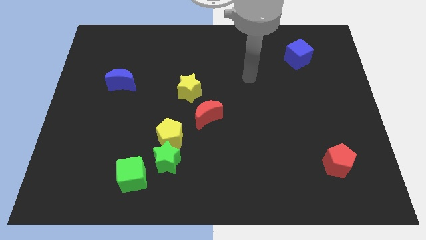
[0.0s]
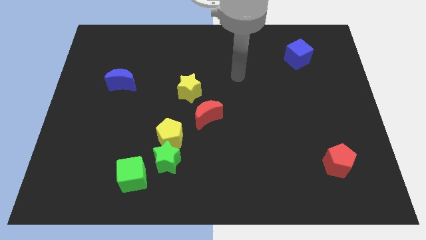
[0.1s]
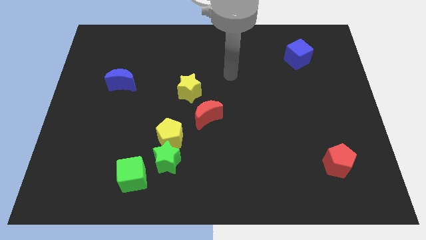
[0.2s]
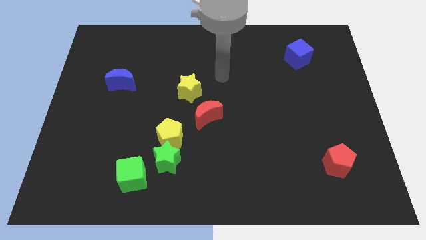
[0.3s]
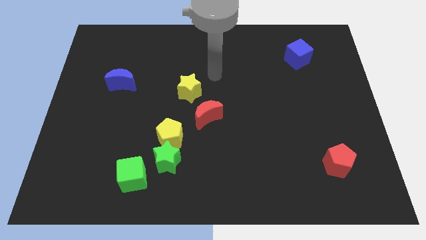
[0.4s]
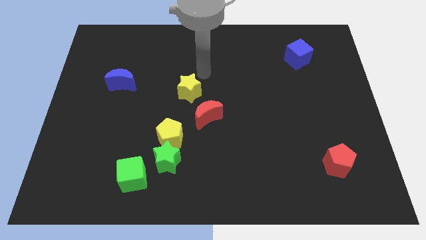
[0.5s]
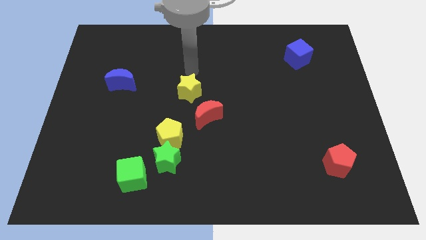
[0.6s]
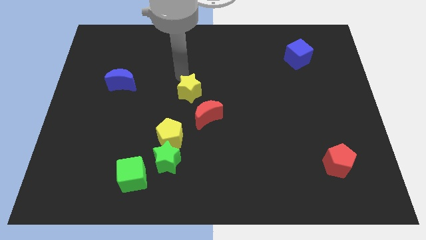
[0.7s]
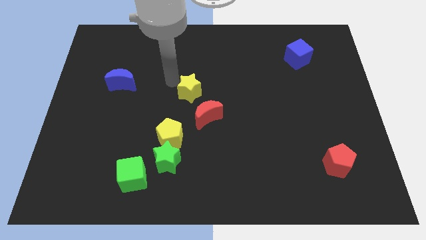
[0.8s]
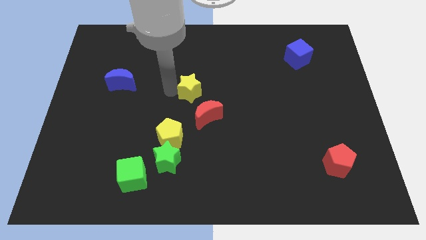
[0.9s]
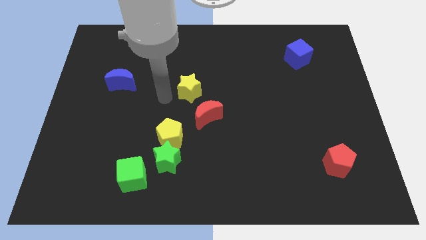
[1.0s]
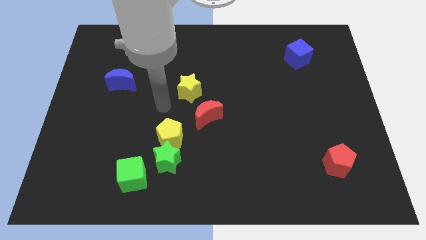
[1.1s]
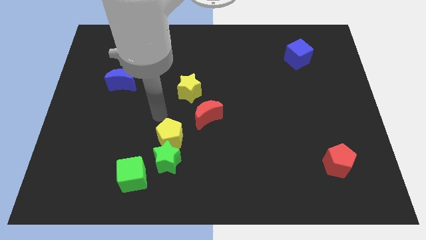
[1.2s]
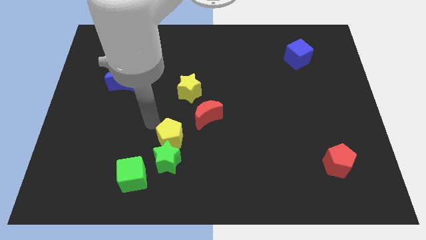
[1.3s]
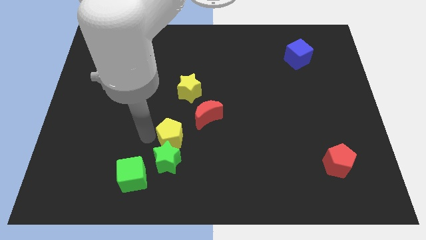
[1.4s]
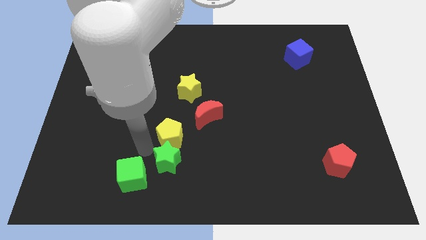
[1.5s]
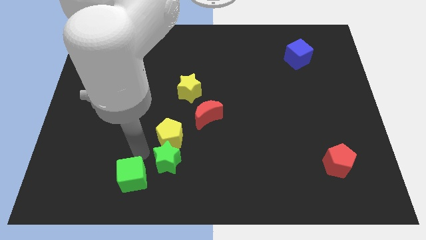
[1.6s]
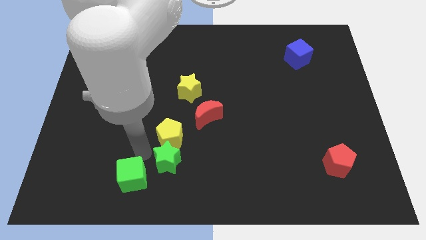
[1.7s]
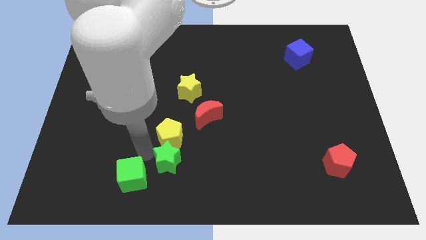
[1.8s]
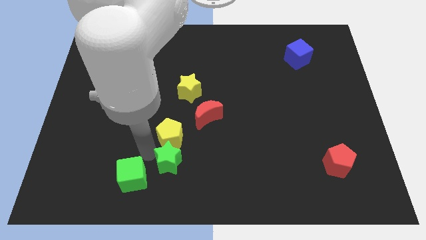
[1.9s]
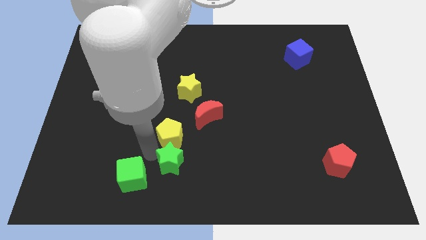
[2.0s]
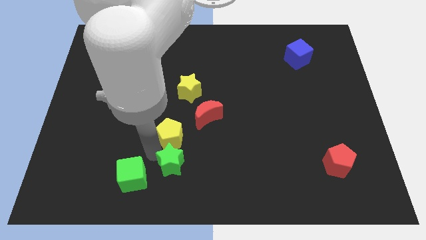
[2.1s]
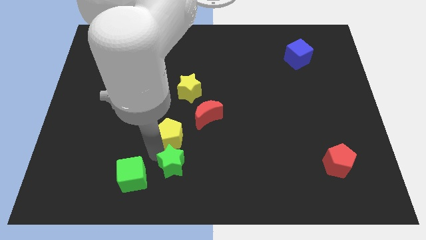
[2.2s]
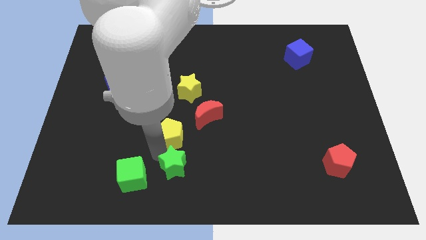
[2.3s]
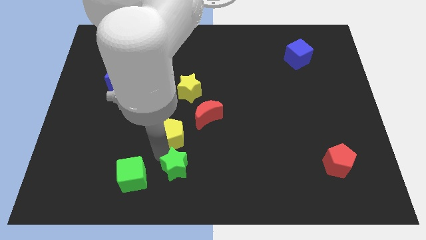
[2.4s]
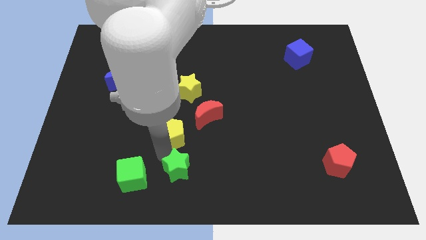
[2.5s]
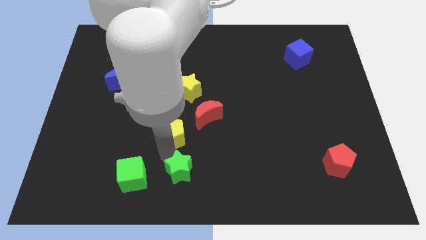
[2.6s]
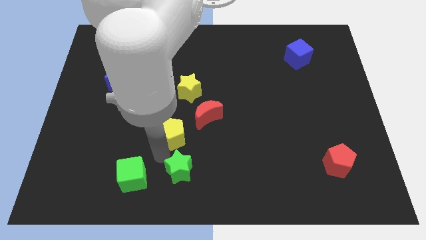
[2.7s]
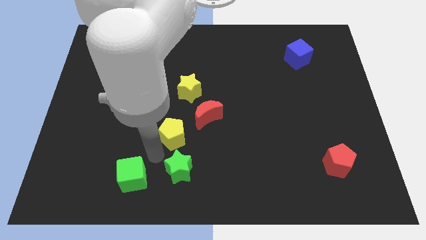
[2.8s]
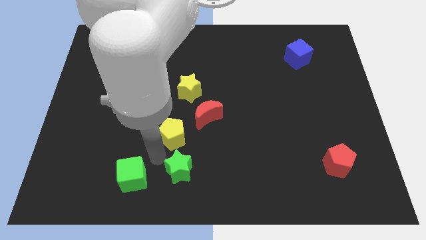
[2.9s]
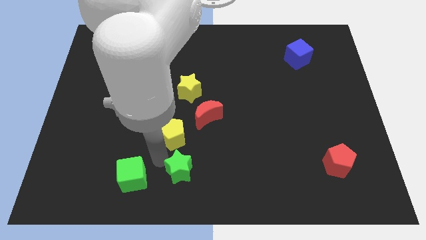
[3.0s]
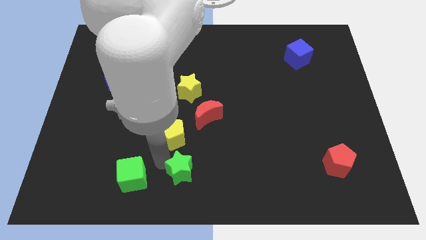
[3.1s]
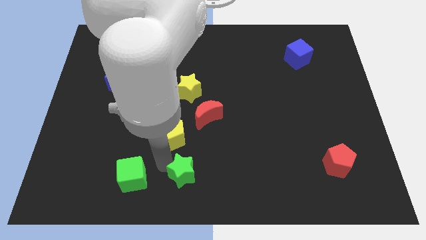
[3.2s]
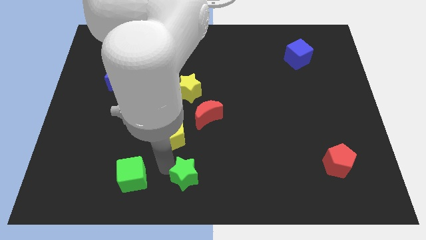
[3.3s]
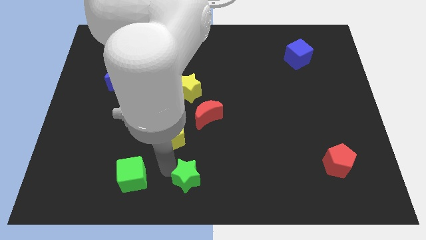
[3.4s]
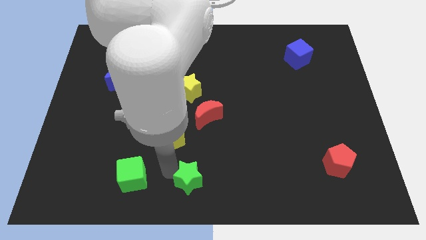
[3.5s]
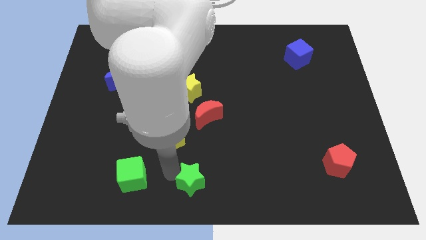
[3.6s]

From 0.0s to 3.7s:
pull the green star apart from the yellow pentagon and green cube

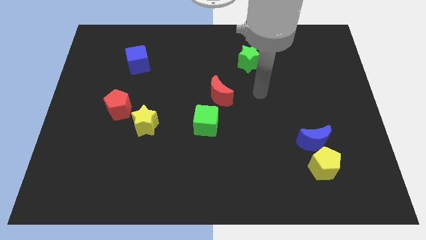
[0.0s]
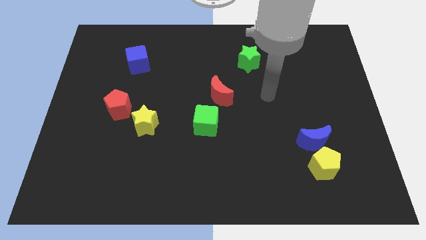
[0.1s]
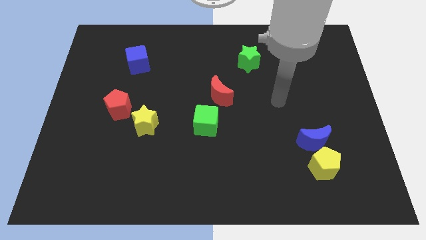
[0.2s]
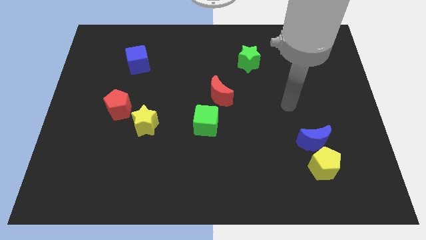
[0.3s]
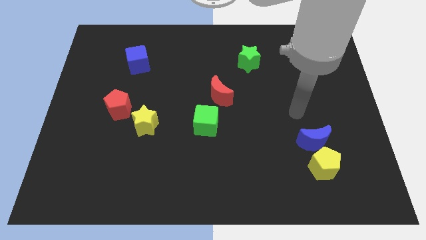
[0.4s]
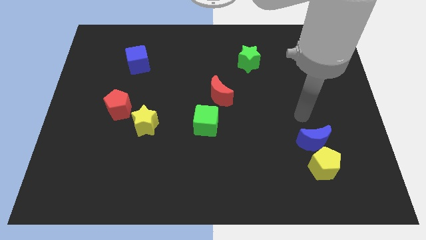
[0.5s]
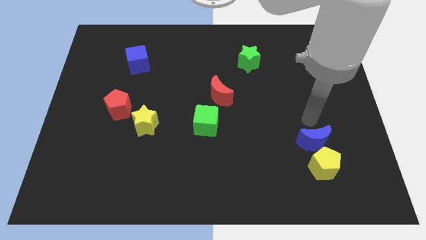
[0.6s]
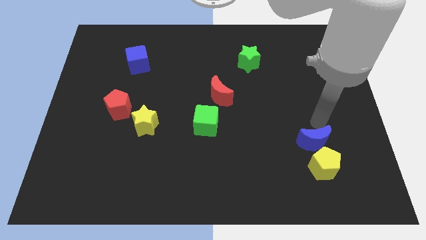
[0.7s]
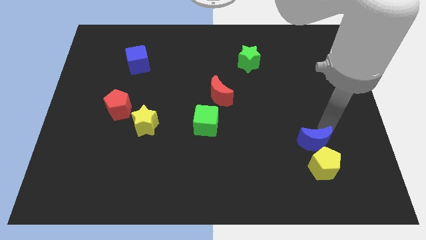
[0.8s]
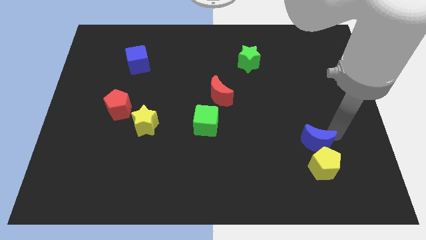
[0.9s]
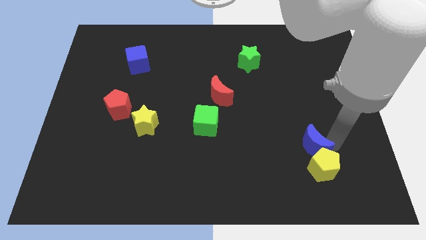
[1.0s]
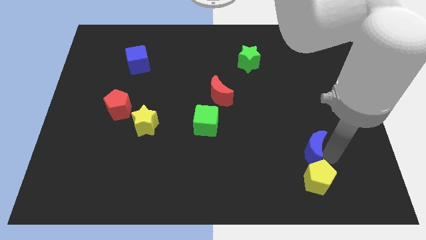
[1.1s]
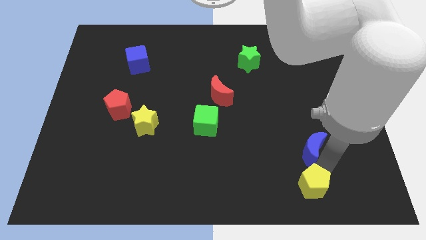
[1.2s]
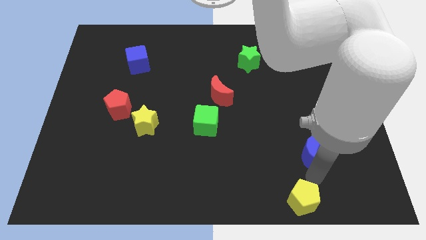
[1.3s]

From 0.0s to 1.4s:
move the blue moon away from the yellow pentagon

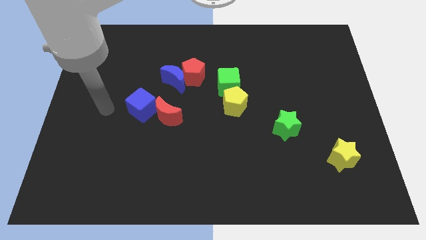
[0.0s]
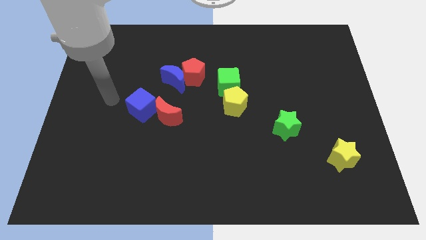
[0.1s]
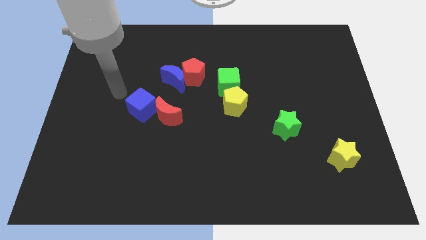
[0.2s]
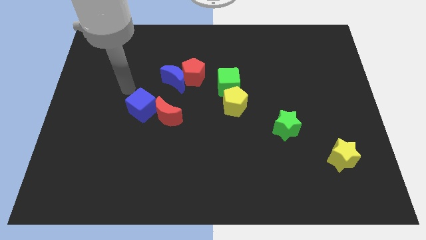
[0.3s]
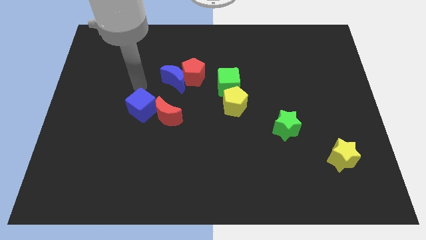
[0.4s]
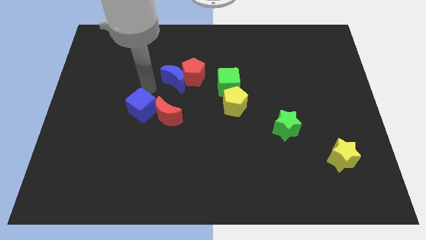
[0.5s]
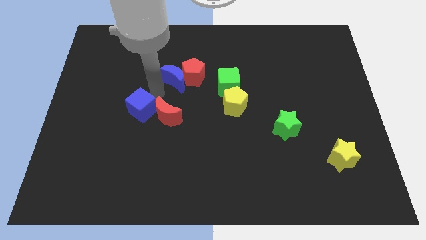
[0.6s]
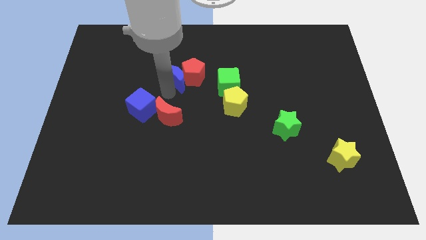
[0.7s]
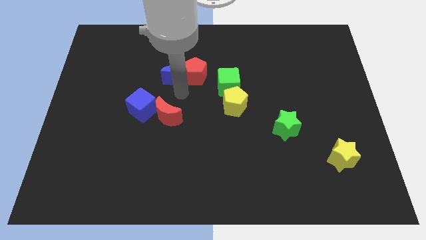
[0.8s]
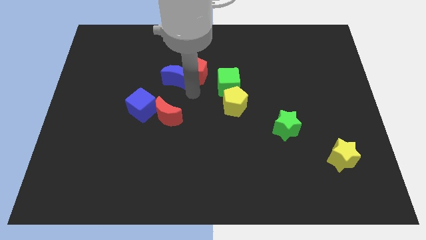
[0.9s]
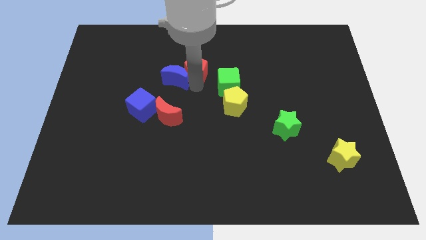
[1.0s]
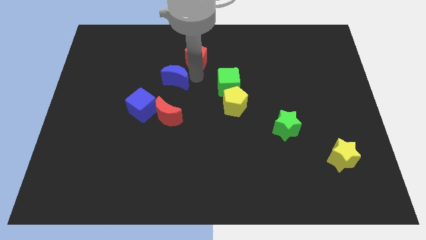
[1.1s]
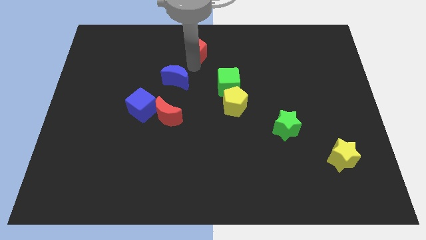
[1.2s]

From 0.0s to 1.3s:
move the blue moon away from the red pentagon

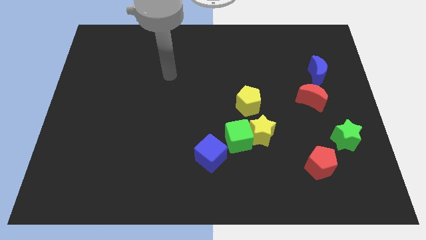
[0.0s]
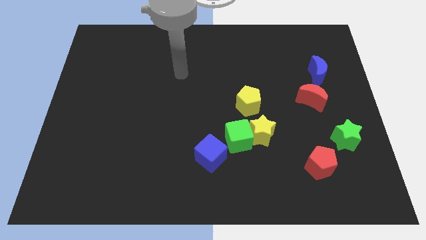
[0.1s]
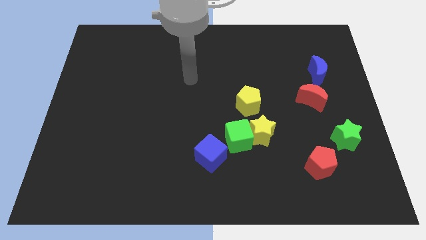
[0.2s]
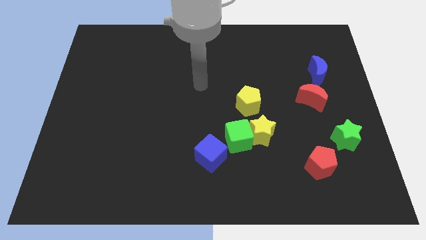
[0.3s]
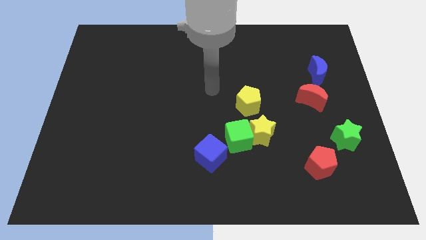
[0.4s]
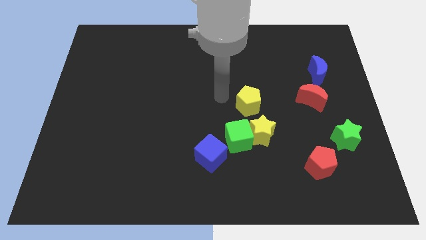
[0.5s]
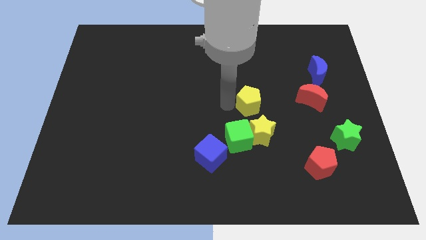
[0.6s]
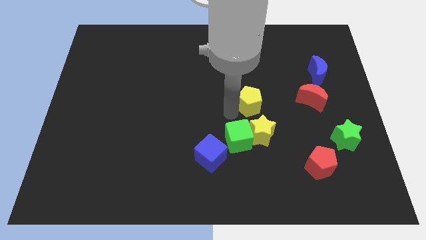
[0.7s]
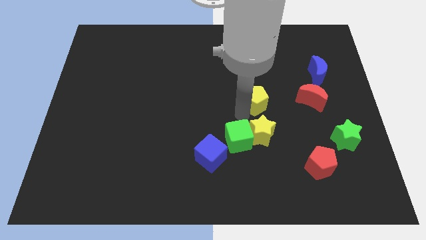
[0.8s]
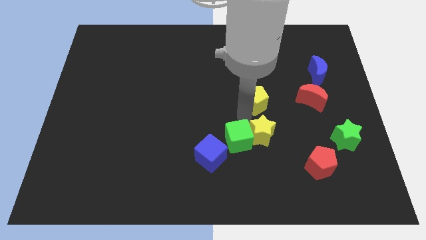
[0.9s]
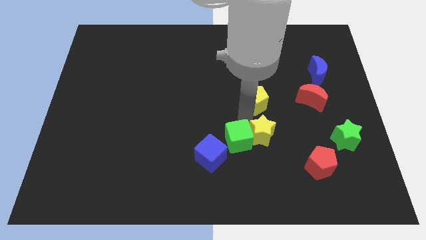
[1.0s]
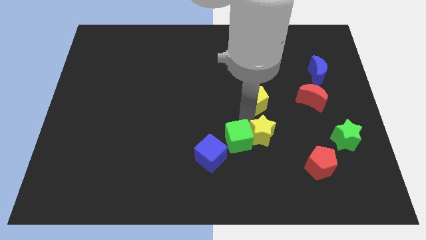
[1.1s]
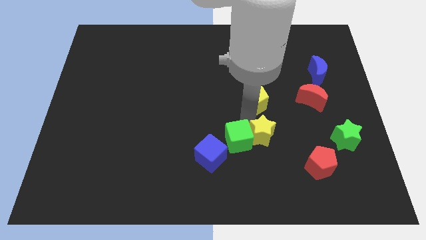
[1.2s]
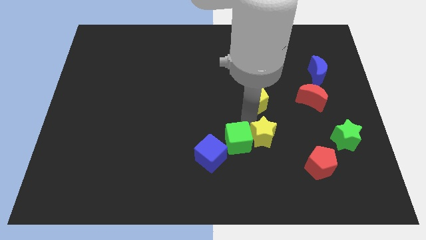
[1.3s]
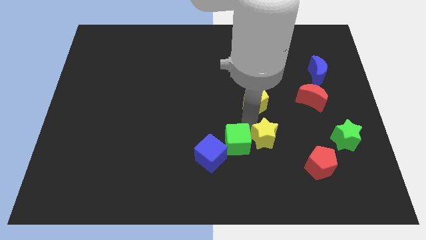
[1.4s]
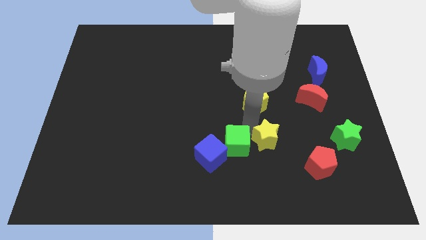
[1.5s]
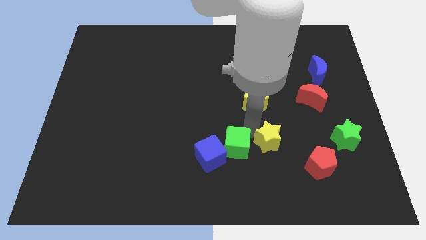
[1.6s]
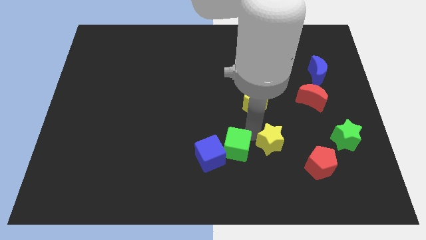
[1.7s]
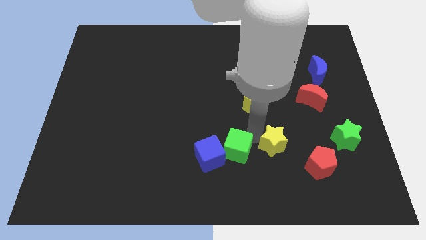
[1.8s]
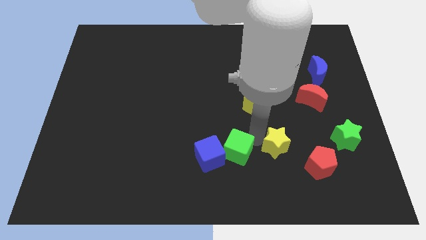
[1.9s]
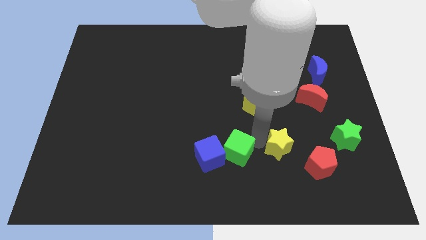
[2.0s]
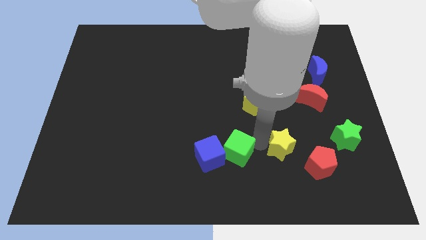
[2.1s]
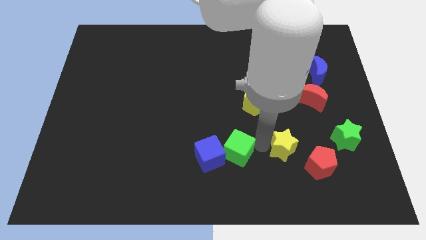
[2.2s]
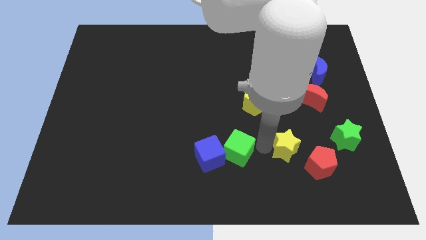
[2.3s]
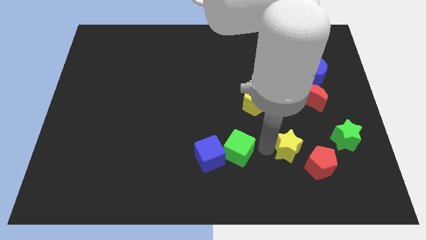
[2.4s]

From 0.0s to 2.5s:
separate the yellow star from the green cube and yellow pentagon

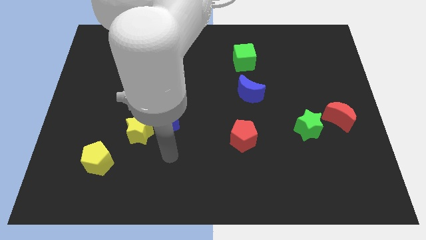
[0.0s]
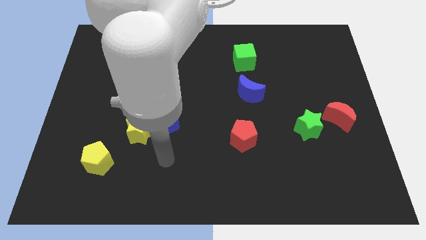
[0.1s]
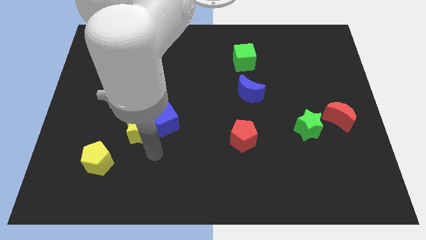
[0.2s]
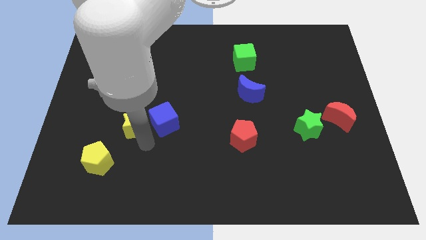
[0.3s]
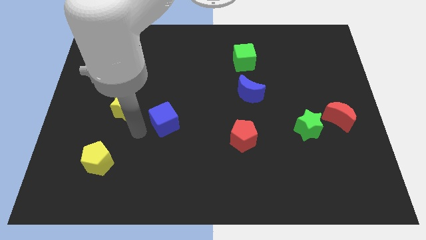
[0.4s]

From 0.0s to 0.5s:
separate the blue cube from the yellow star
